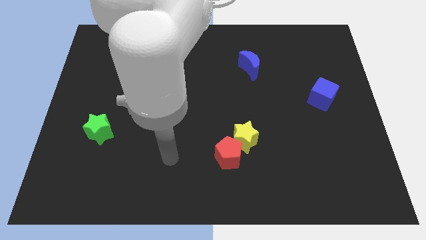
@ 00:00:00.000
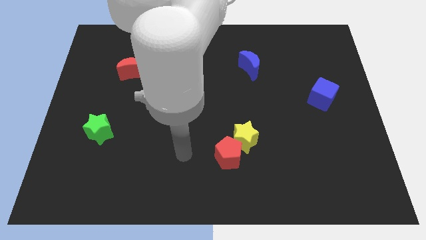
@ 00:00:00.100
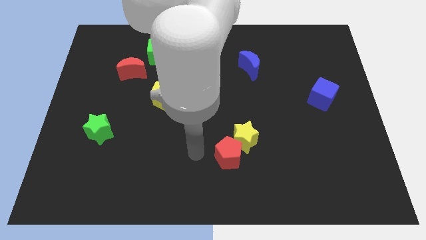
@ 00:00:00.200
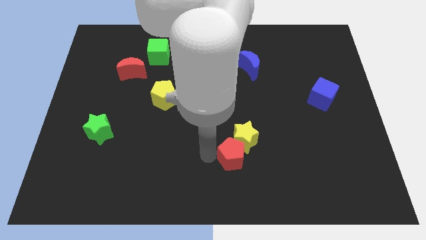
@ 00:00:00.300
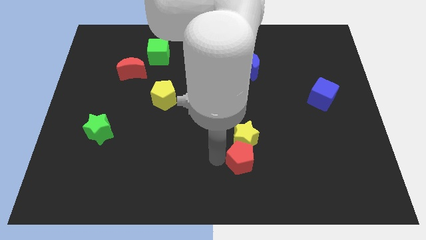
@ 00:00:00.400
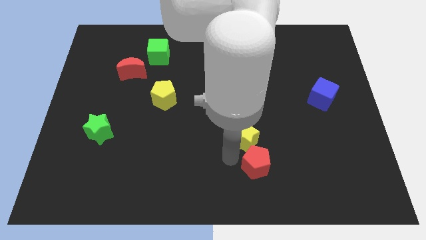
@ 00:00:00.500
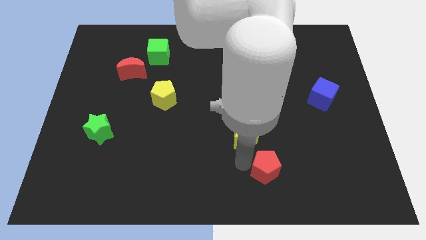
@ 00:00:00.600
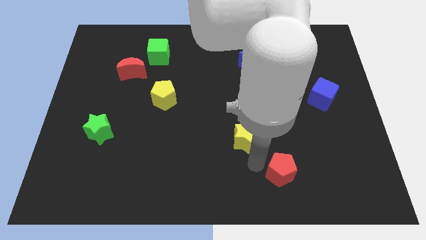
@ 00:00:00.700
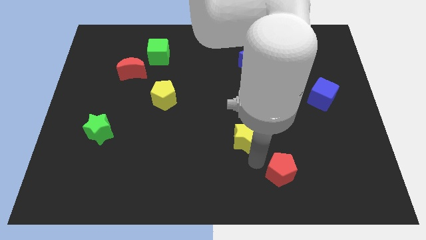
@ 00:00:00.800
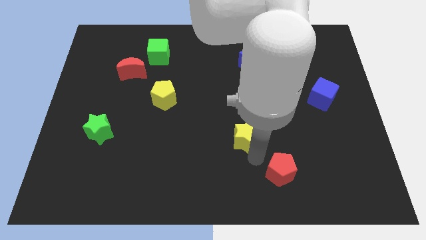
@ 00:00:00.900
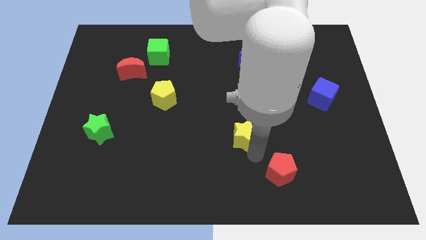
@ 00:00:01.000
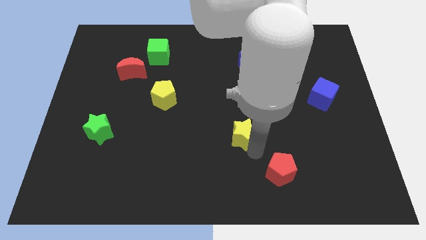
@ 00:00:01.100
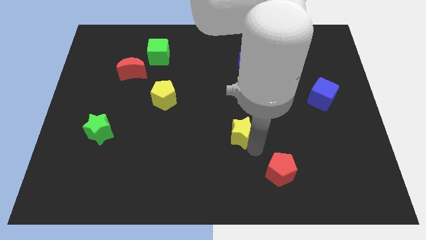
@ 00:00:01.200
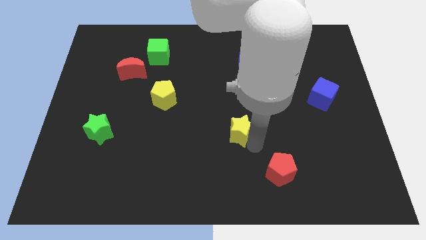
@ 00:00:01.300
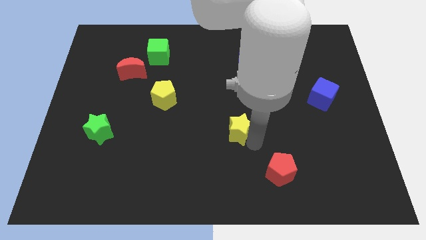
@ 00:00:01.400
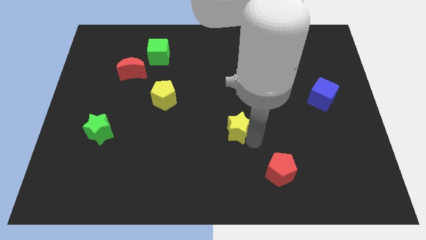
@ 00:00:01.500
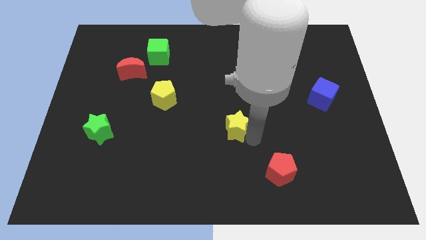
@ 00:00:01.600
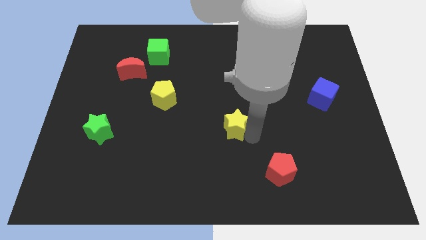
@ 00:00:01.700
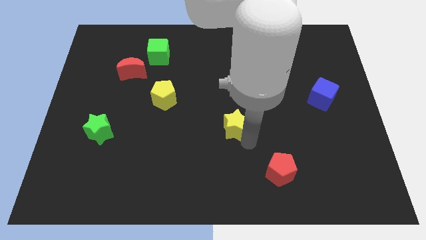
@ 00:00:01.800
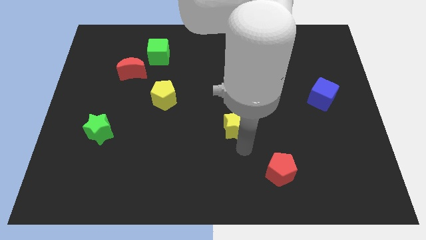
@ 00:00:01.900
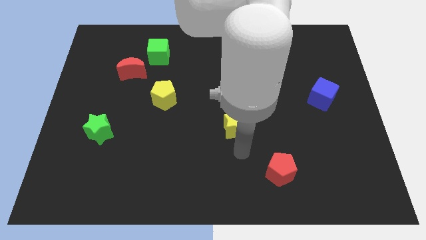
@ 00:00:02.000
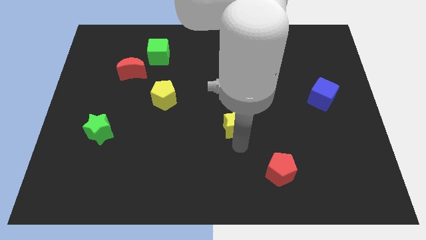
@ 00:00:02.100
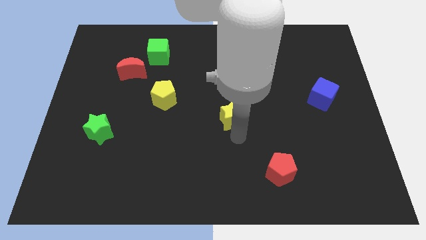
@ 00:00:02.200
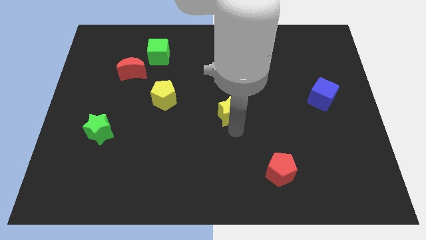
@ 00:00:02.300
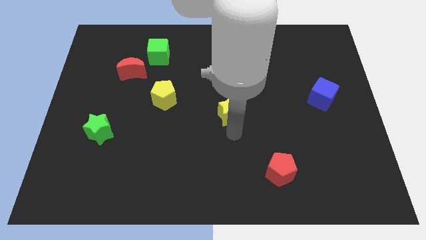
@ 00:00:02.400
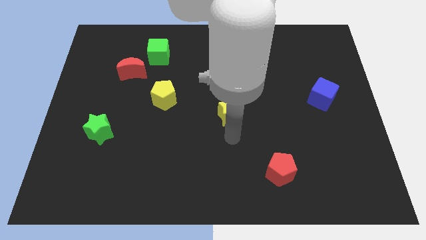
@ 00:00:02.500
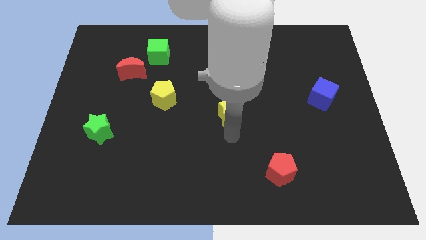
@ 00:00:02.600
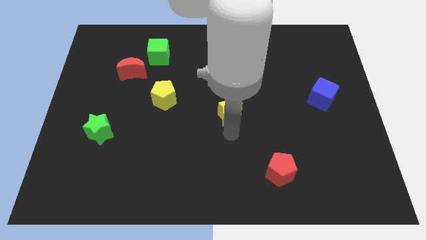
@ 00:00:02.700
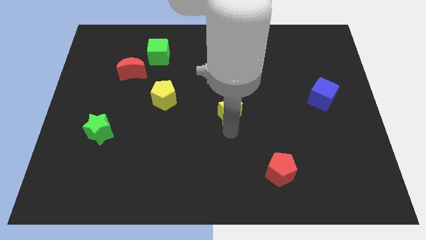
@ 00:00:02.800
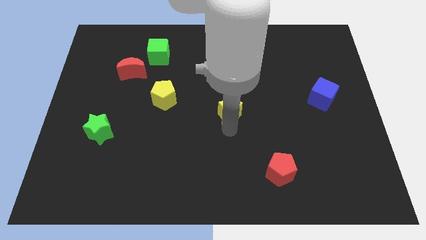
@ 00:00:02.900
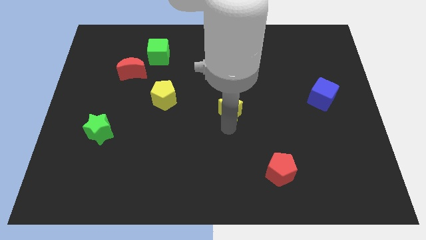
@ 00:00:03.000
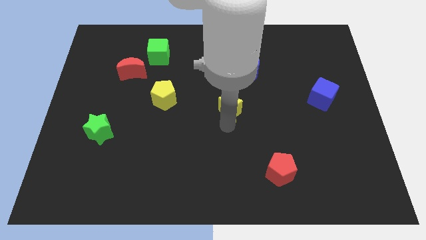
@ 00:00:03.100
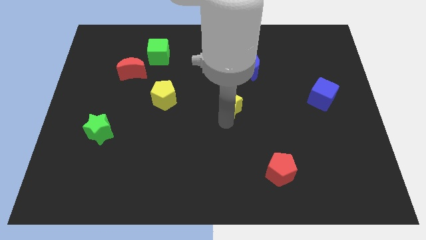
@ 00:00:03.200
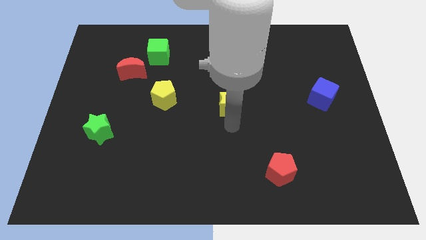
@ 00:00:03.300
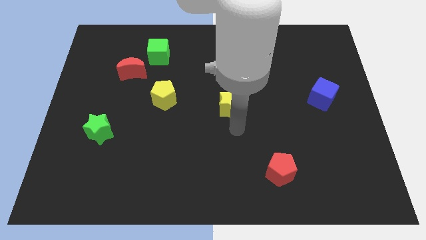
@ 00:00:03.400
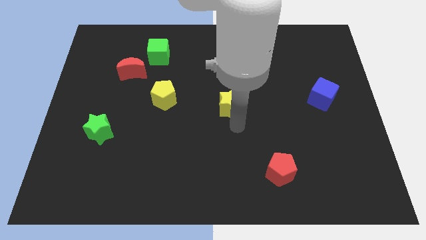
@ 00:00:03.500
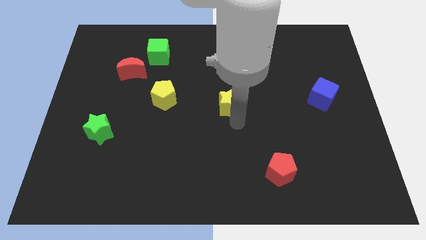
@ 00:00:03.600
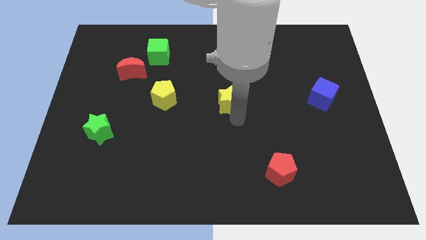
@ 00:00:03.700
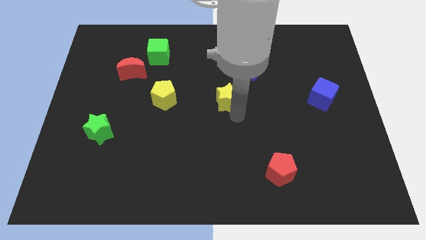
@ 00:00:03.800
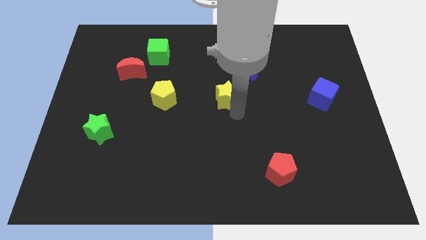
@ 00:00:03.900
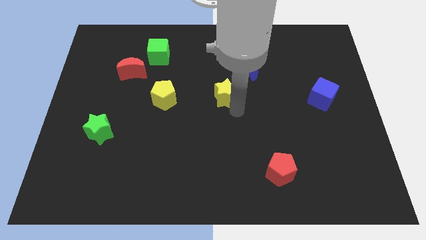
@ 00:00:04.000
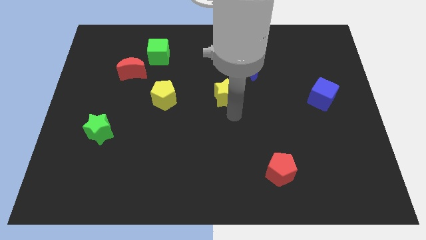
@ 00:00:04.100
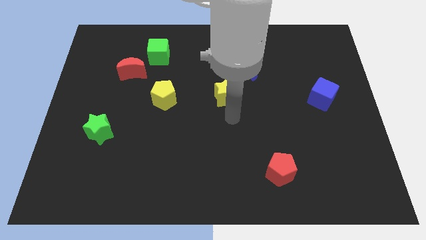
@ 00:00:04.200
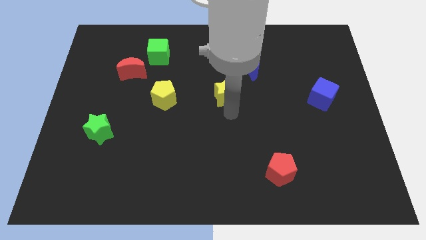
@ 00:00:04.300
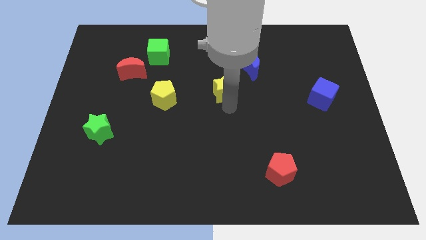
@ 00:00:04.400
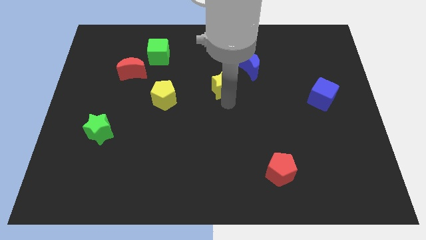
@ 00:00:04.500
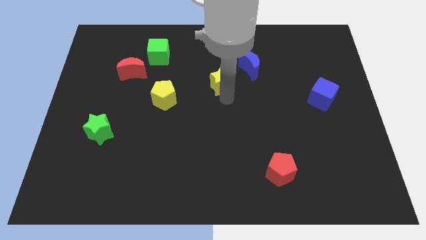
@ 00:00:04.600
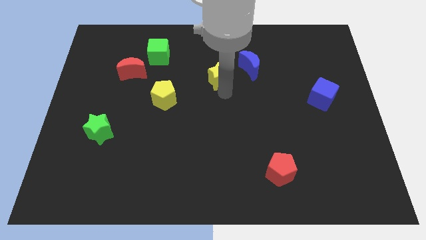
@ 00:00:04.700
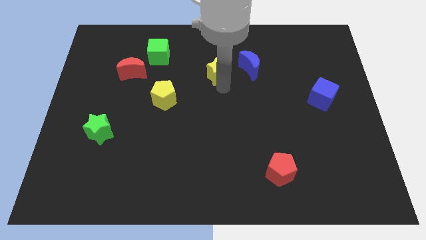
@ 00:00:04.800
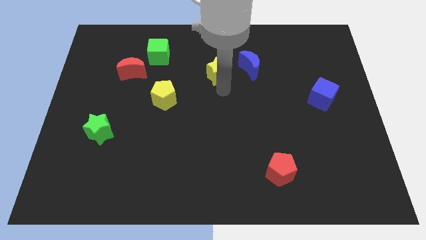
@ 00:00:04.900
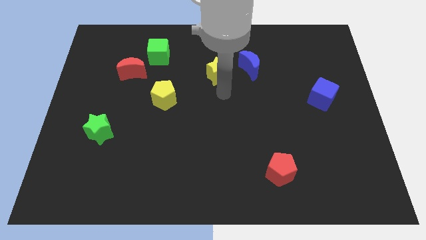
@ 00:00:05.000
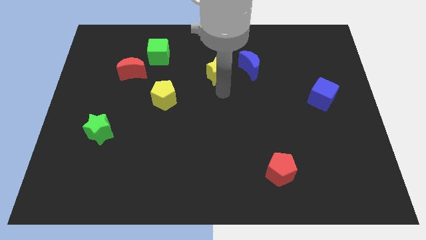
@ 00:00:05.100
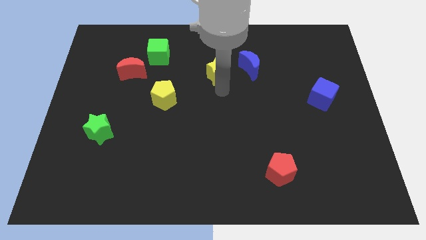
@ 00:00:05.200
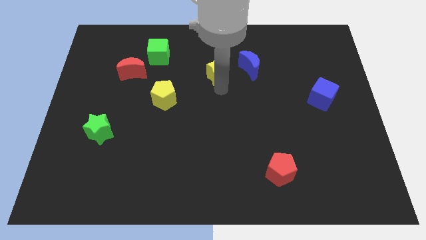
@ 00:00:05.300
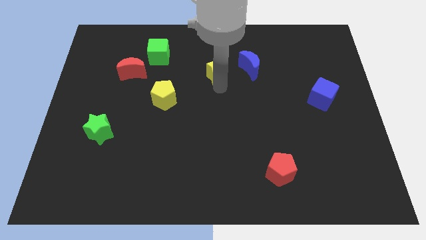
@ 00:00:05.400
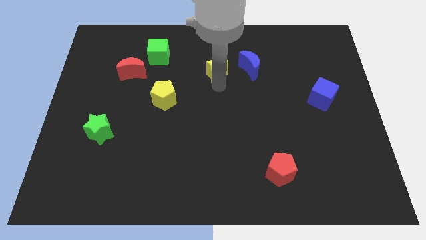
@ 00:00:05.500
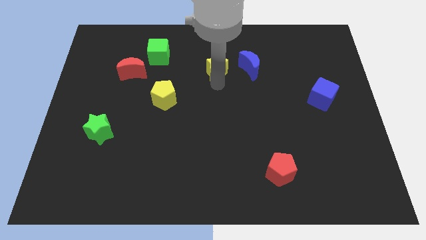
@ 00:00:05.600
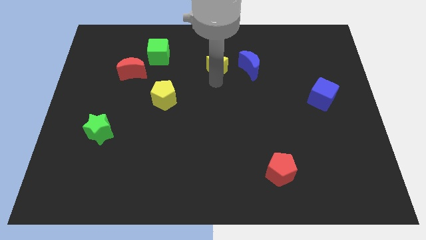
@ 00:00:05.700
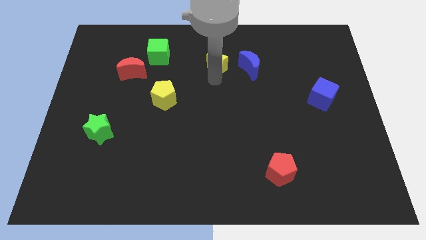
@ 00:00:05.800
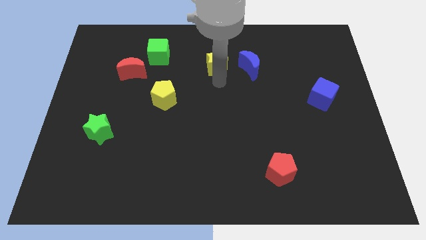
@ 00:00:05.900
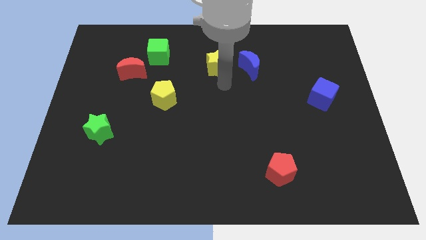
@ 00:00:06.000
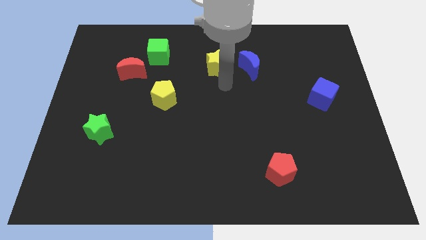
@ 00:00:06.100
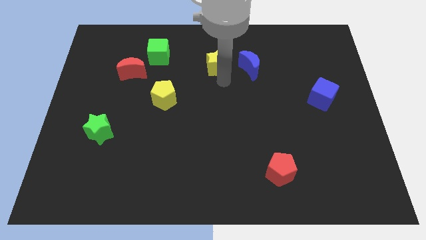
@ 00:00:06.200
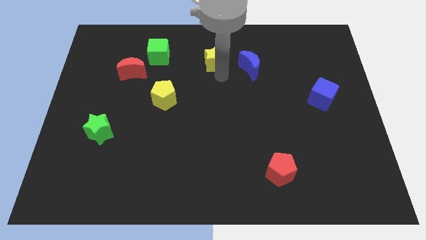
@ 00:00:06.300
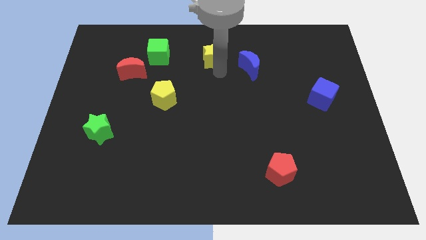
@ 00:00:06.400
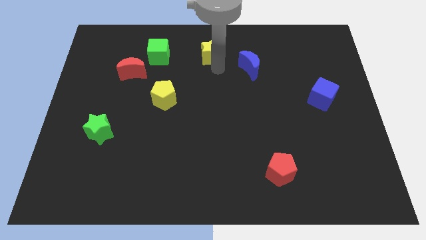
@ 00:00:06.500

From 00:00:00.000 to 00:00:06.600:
put the yellow star to the towards your base
